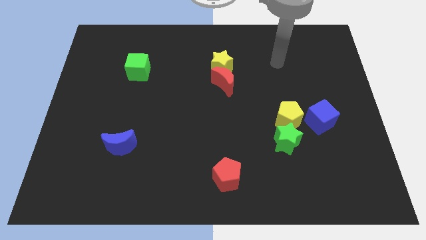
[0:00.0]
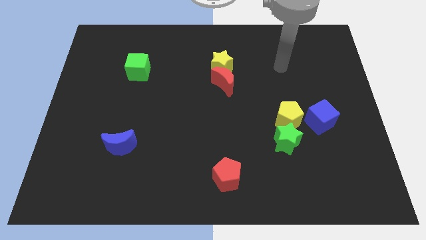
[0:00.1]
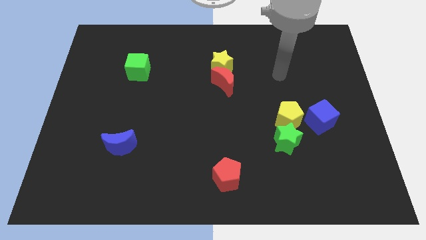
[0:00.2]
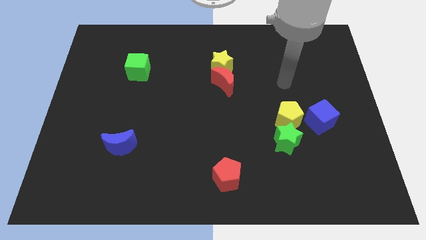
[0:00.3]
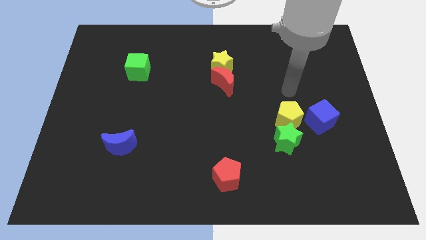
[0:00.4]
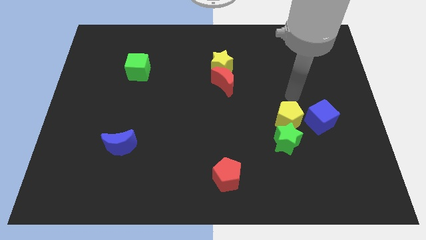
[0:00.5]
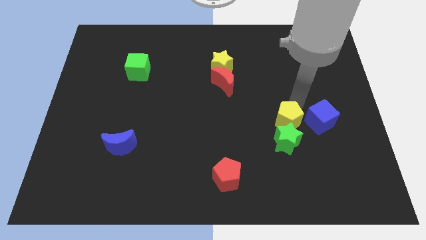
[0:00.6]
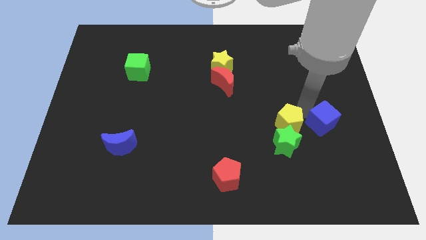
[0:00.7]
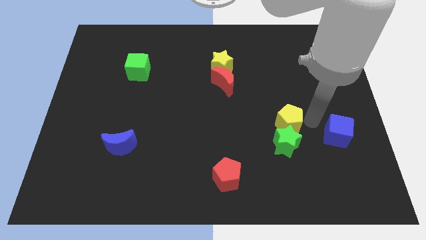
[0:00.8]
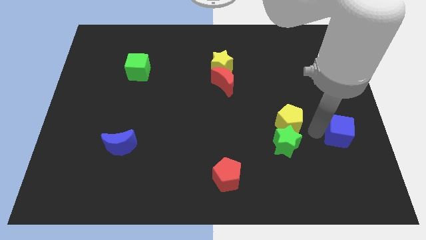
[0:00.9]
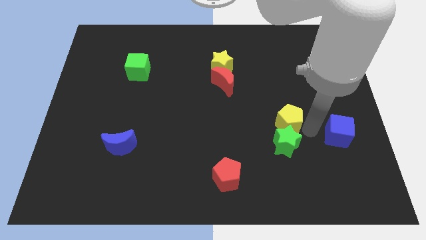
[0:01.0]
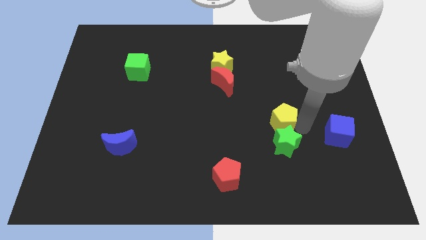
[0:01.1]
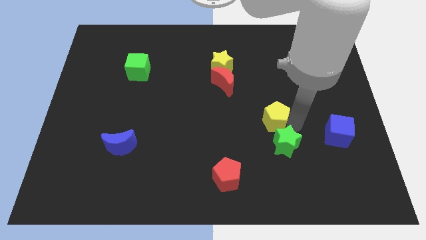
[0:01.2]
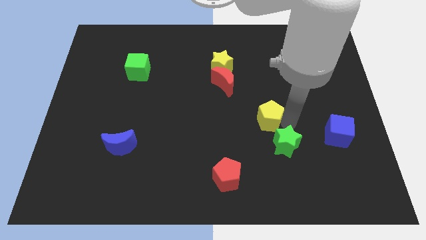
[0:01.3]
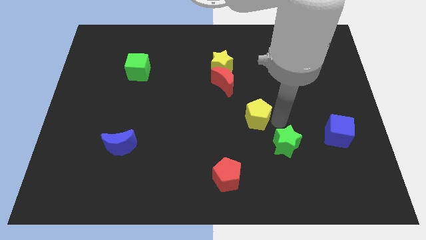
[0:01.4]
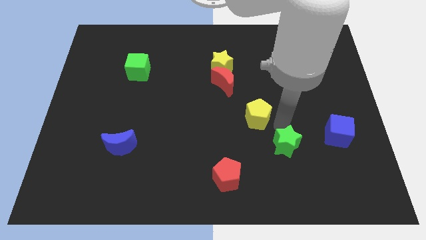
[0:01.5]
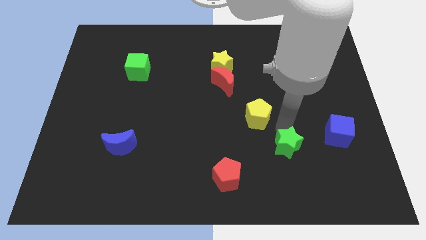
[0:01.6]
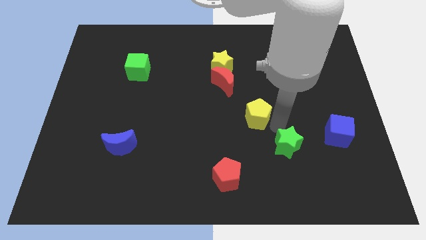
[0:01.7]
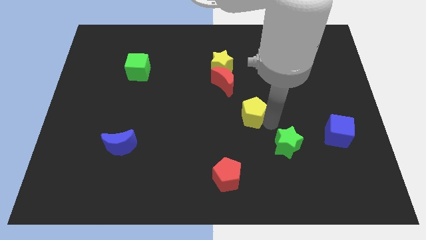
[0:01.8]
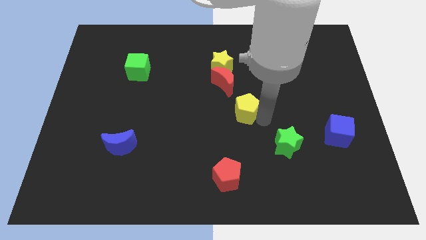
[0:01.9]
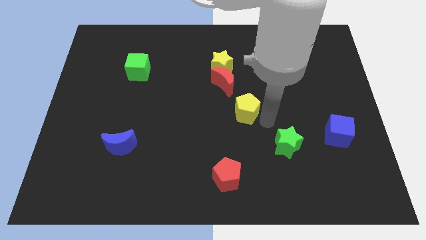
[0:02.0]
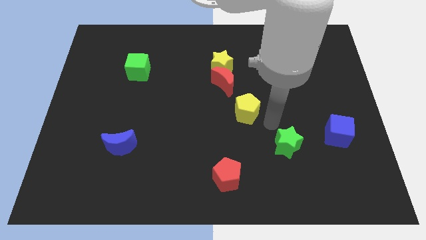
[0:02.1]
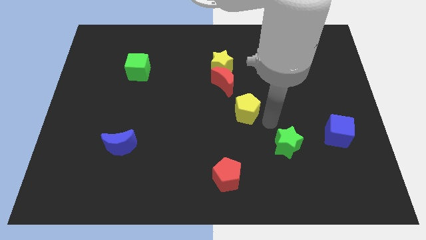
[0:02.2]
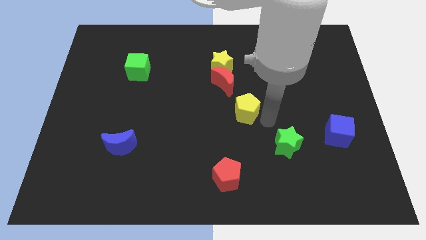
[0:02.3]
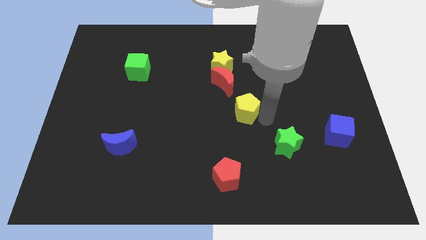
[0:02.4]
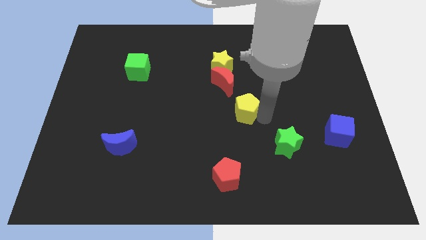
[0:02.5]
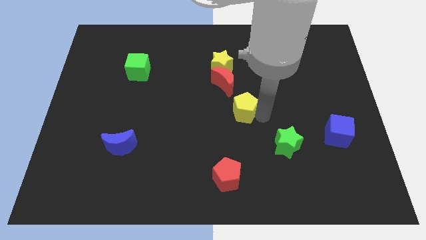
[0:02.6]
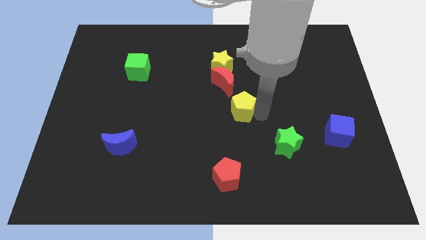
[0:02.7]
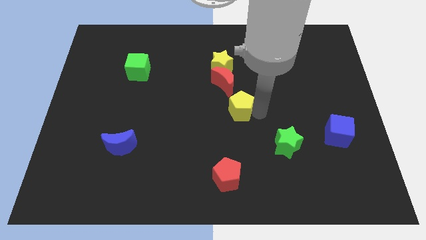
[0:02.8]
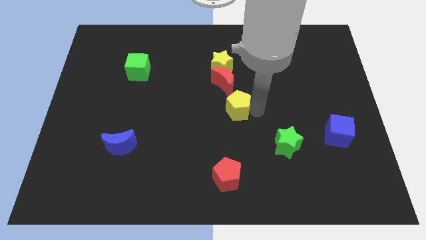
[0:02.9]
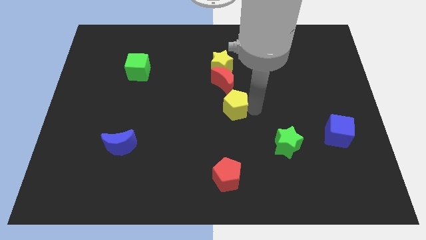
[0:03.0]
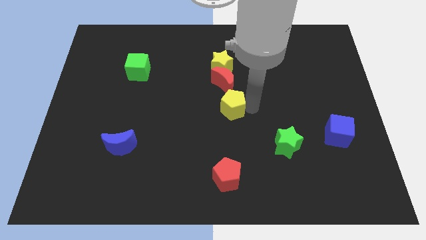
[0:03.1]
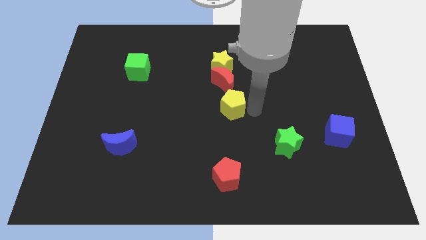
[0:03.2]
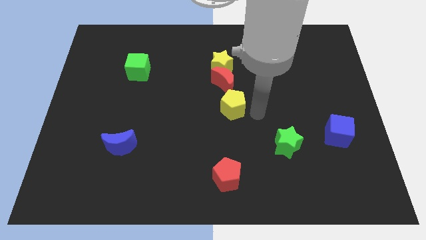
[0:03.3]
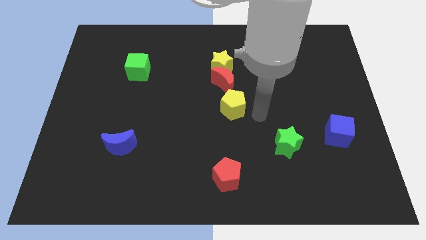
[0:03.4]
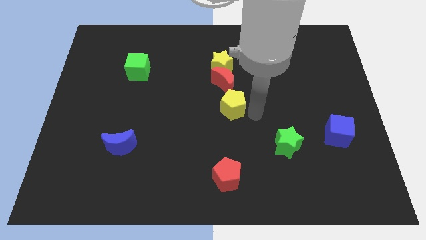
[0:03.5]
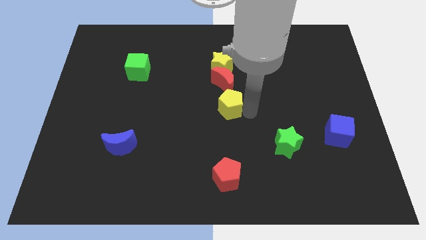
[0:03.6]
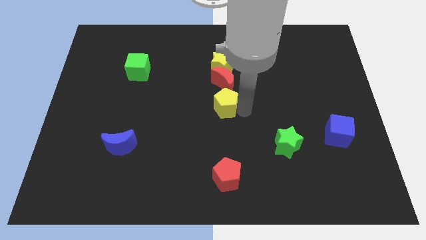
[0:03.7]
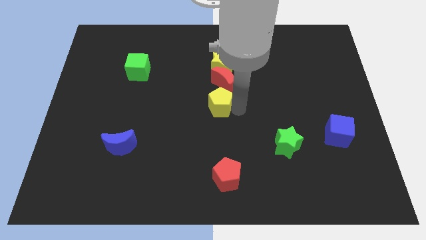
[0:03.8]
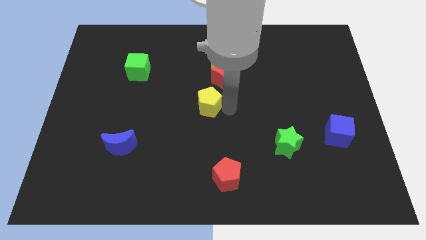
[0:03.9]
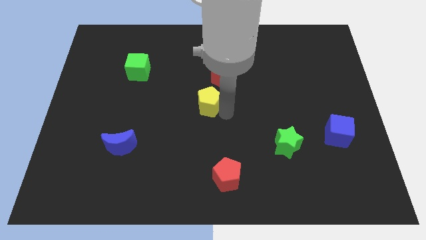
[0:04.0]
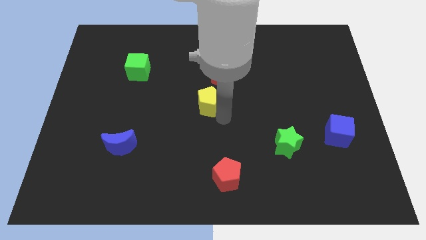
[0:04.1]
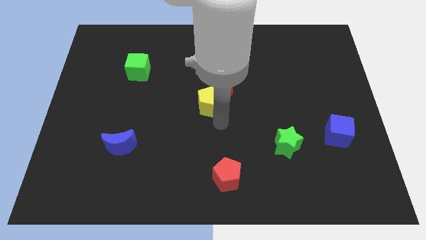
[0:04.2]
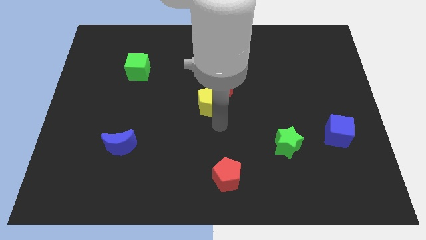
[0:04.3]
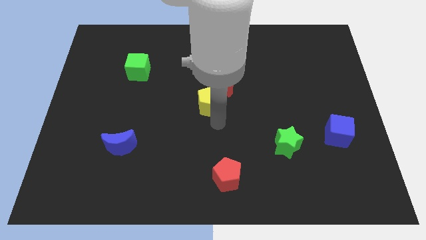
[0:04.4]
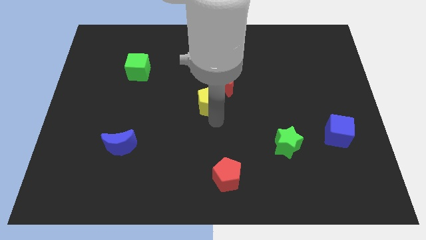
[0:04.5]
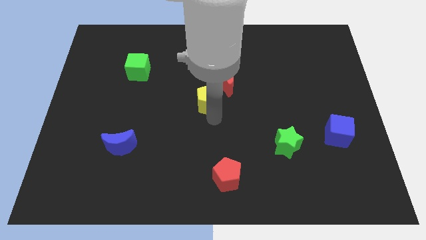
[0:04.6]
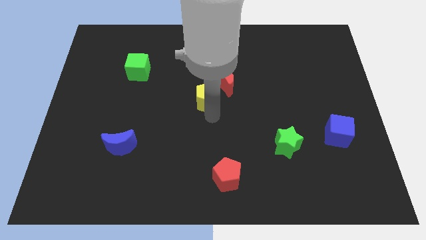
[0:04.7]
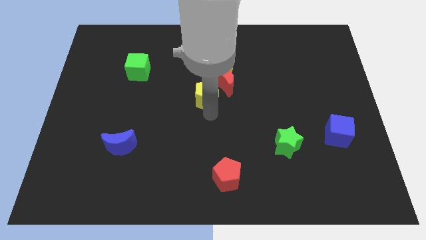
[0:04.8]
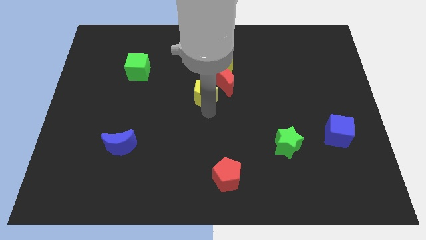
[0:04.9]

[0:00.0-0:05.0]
slide the yellow pentagon to the bottom left of the yellow star

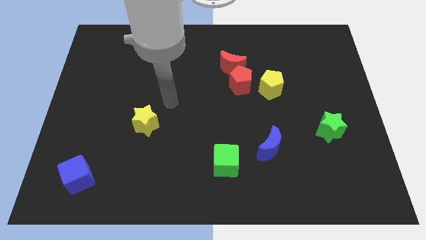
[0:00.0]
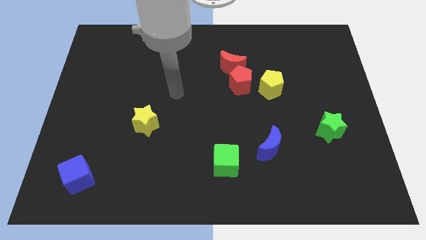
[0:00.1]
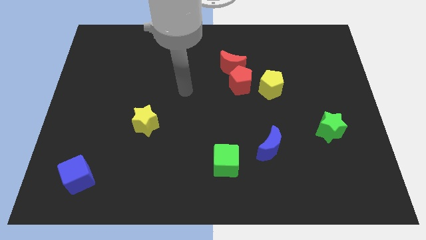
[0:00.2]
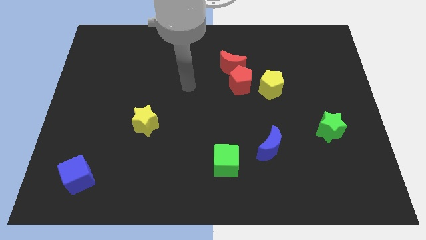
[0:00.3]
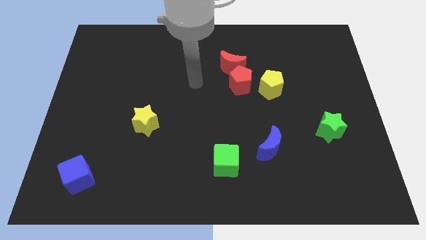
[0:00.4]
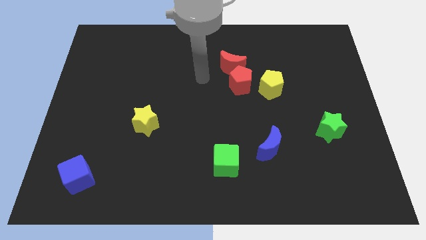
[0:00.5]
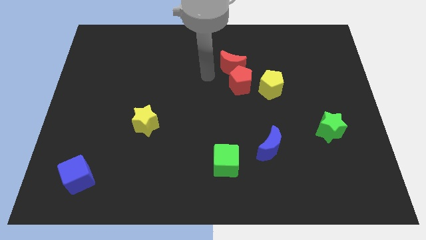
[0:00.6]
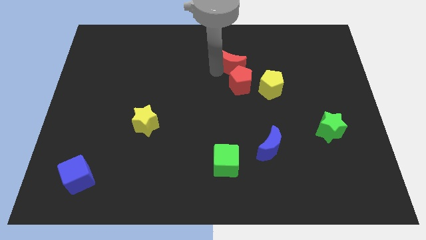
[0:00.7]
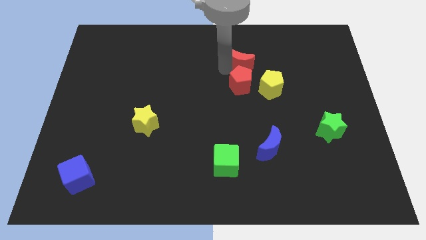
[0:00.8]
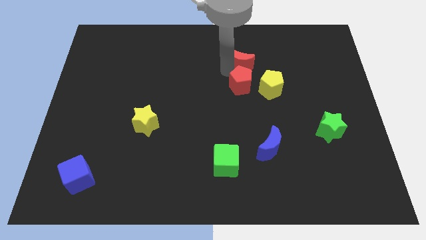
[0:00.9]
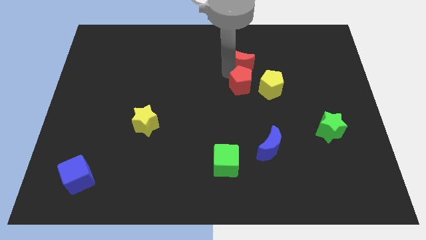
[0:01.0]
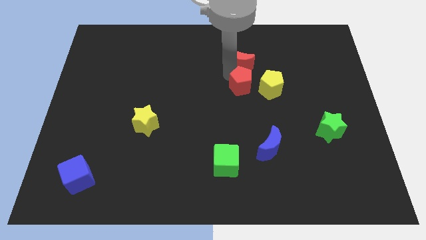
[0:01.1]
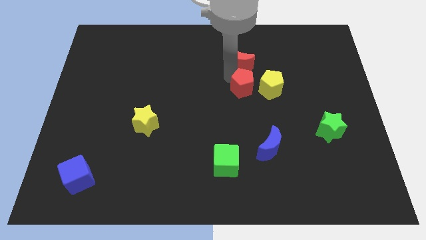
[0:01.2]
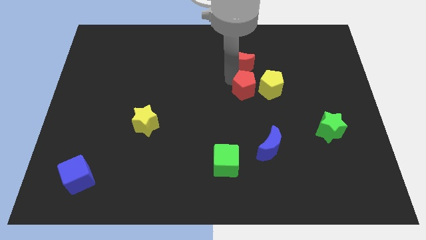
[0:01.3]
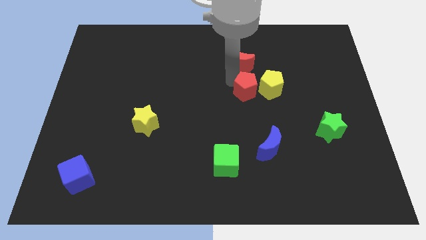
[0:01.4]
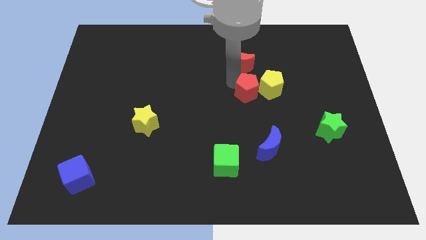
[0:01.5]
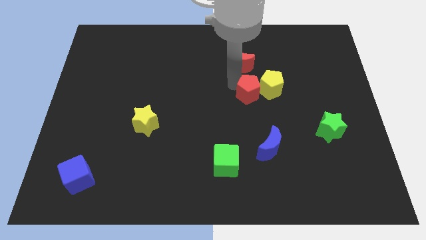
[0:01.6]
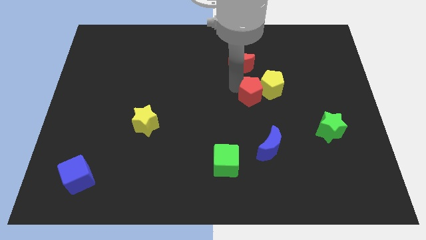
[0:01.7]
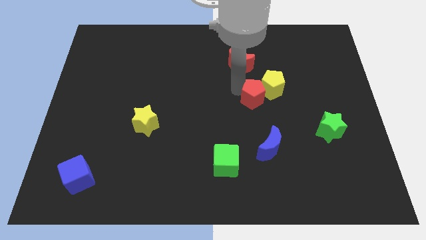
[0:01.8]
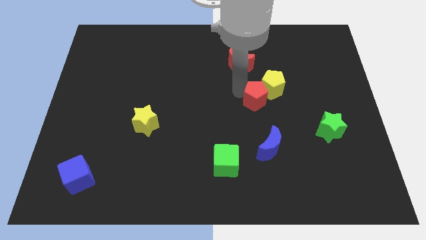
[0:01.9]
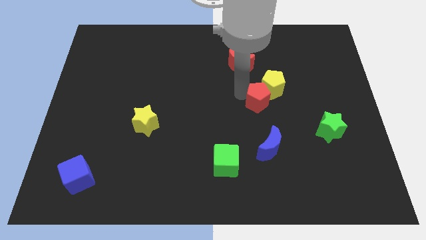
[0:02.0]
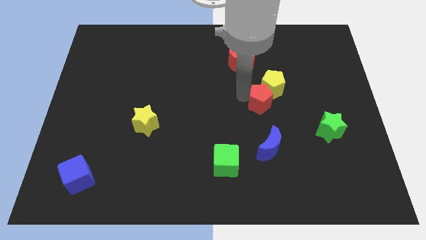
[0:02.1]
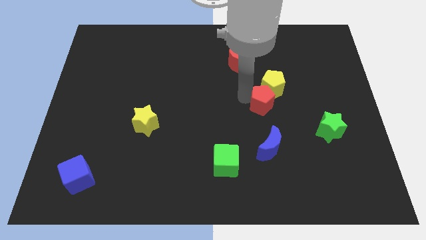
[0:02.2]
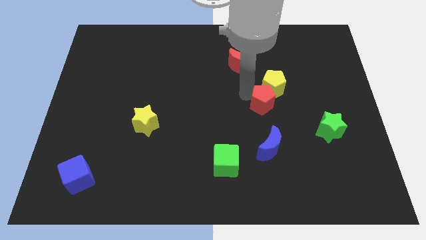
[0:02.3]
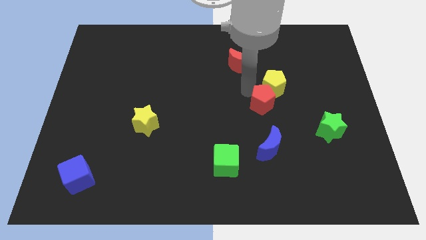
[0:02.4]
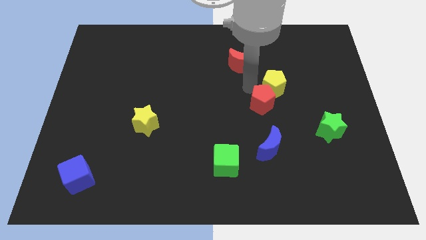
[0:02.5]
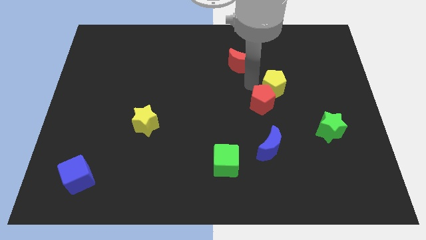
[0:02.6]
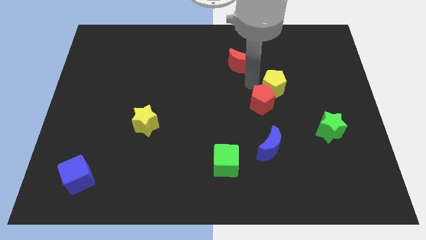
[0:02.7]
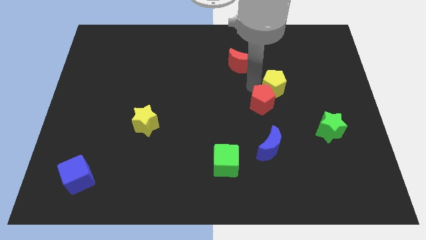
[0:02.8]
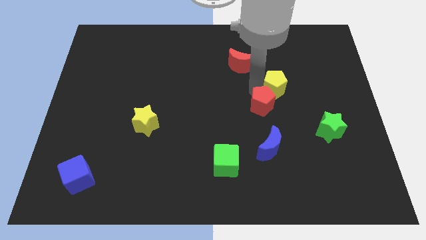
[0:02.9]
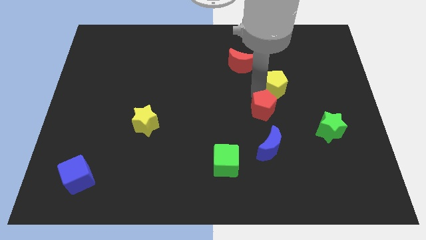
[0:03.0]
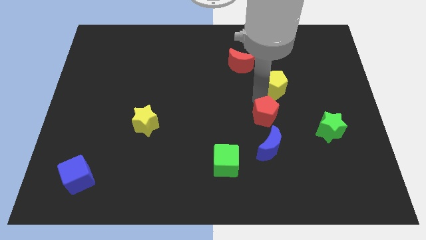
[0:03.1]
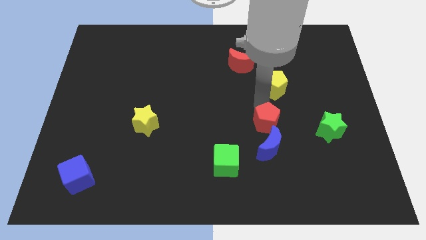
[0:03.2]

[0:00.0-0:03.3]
slide the red pentagon just left of the green star
